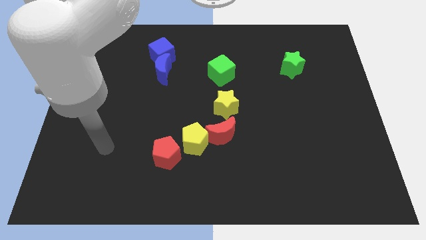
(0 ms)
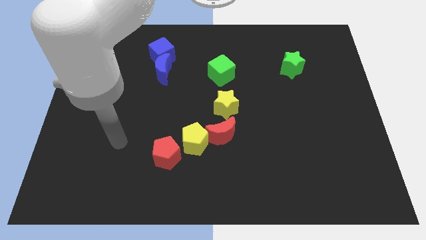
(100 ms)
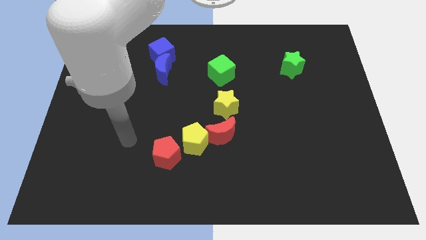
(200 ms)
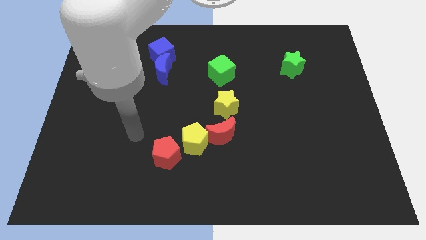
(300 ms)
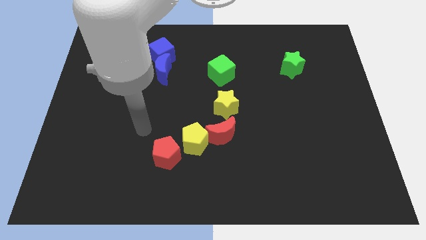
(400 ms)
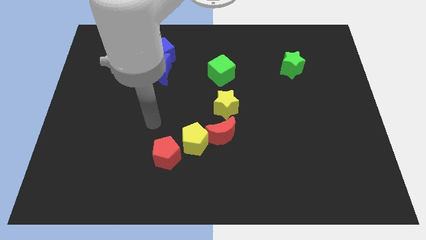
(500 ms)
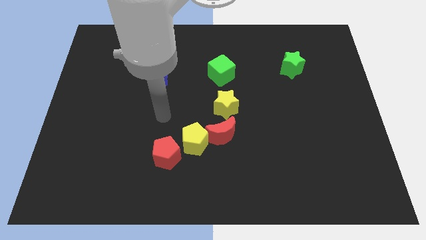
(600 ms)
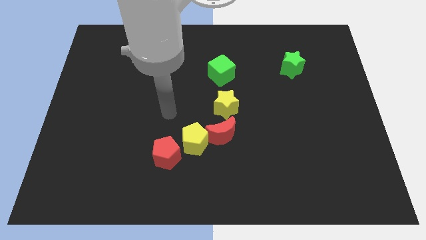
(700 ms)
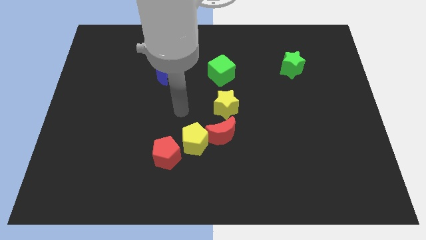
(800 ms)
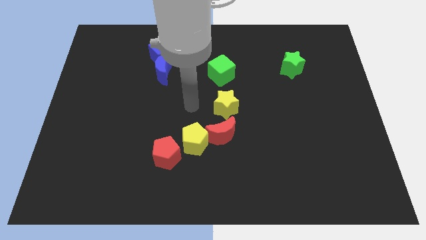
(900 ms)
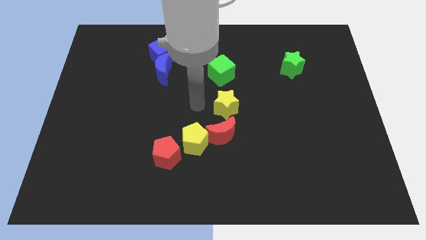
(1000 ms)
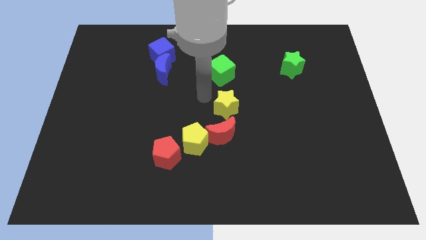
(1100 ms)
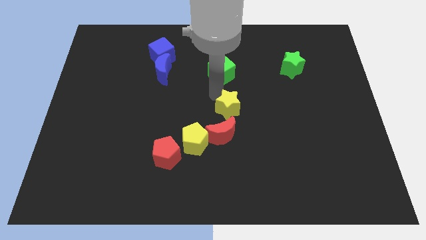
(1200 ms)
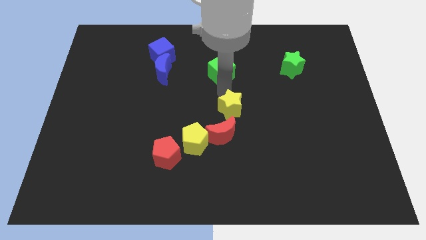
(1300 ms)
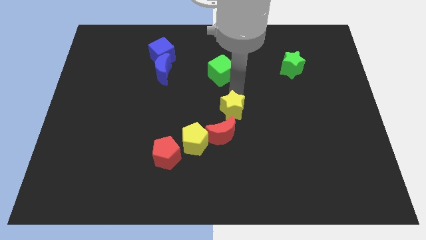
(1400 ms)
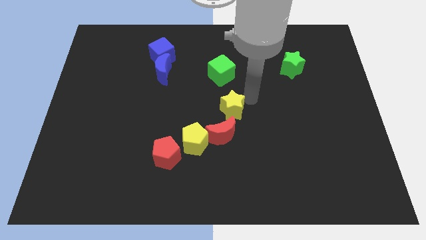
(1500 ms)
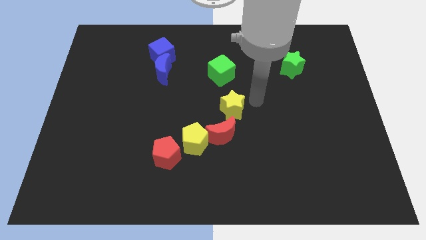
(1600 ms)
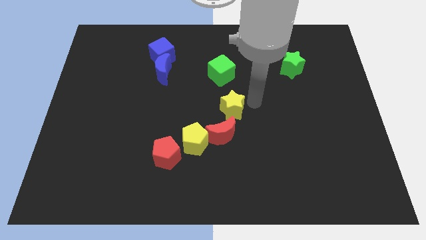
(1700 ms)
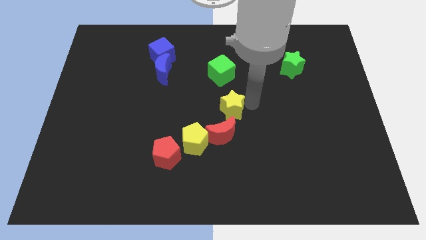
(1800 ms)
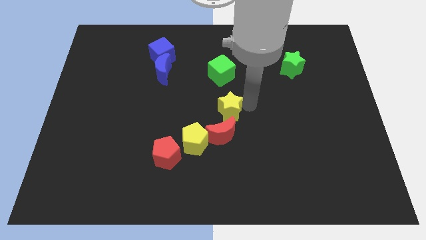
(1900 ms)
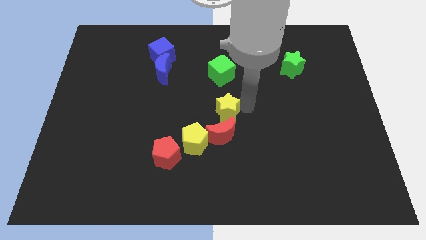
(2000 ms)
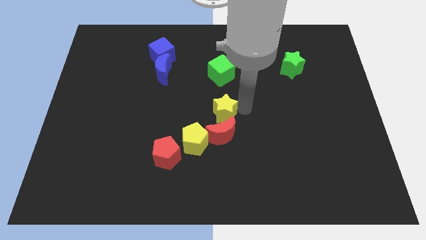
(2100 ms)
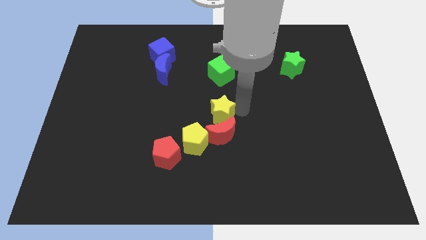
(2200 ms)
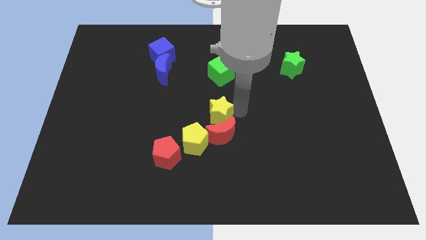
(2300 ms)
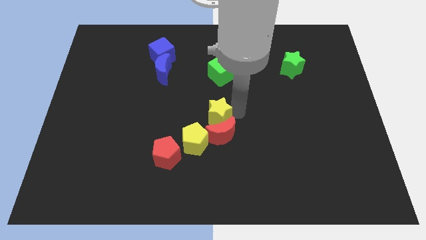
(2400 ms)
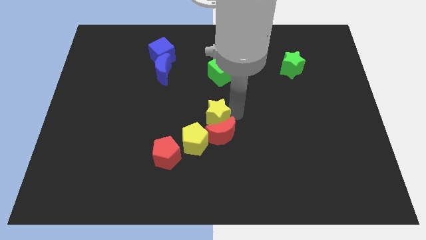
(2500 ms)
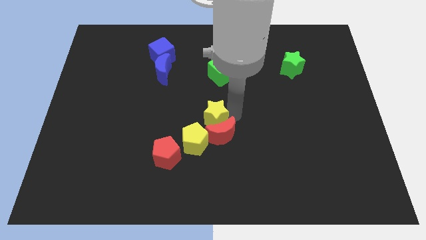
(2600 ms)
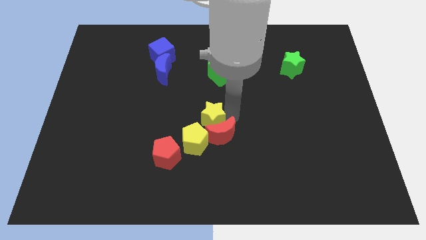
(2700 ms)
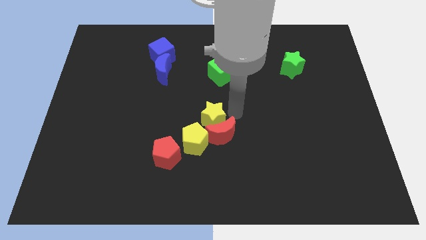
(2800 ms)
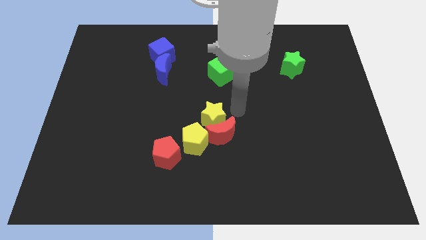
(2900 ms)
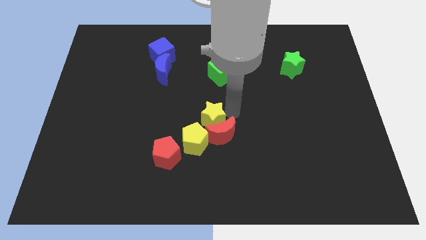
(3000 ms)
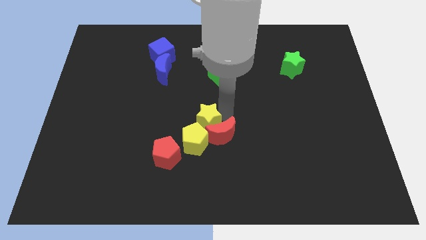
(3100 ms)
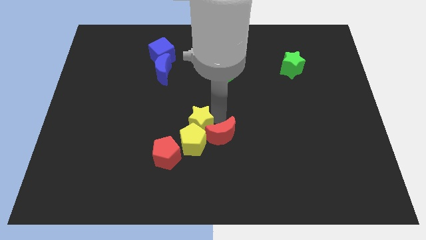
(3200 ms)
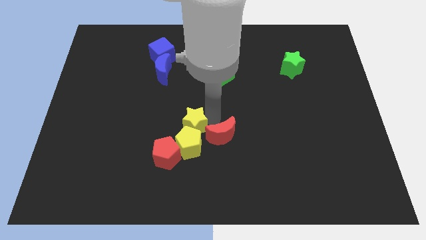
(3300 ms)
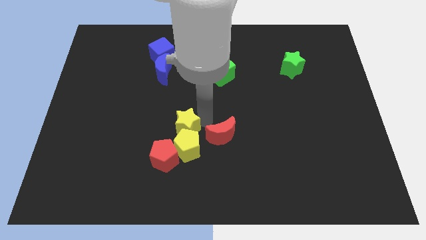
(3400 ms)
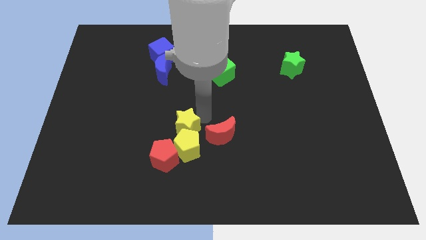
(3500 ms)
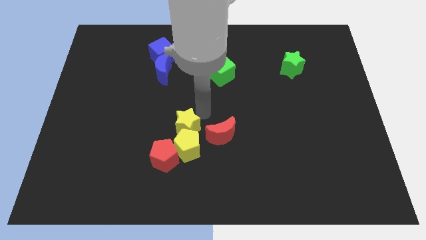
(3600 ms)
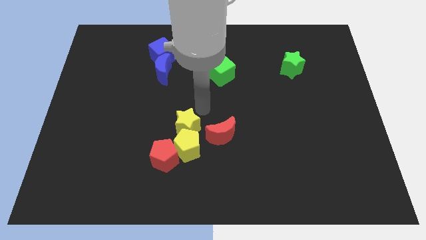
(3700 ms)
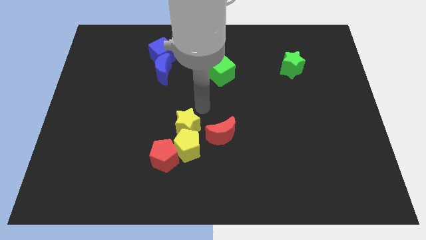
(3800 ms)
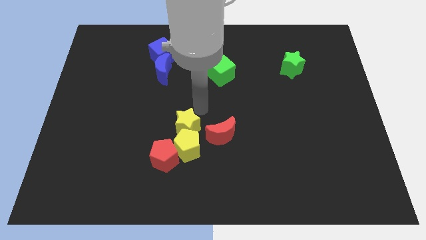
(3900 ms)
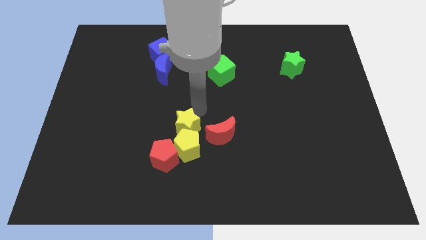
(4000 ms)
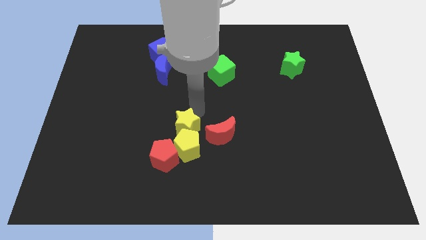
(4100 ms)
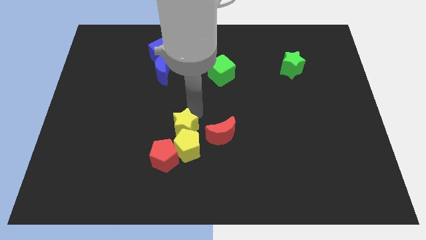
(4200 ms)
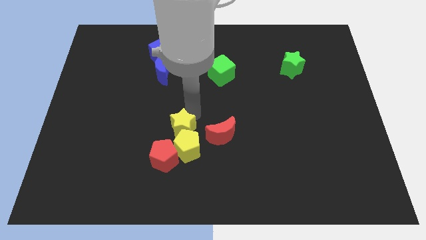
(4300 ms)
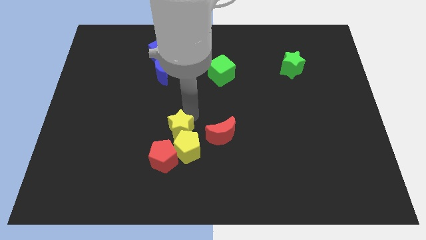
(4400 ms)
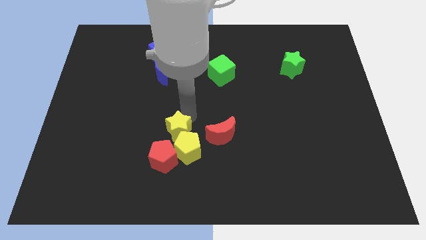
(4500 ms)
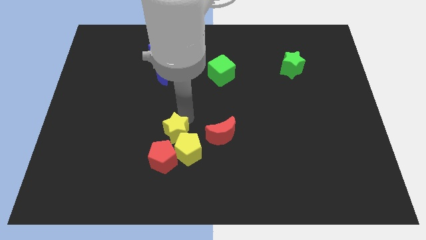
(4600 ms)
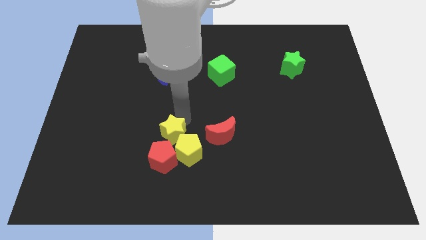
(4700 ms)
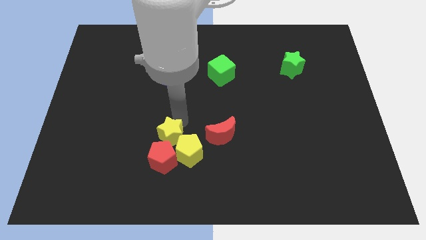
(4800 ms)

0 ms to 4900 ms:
push the yellow star to the red pentagon

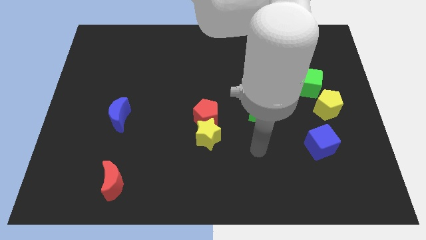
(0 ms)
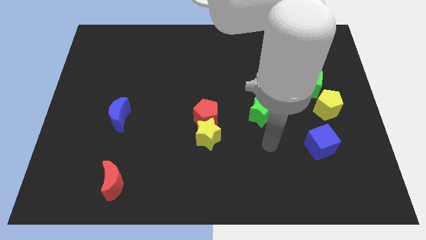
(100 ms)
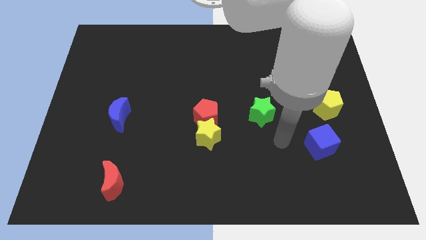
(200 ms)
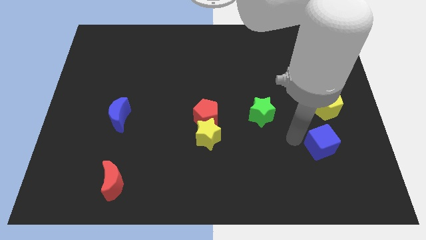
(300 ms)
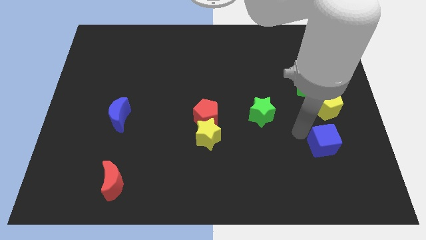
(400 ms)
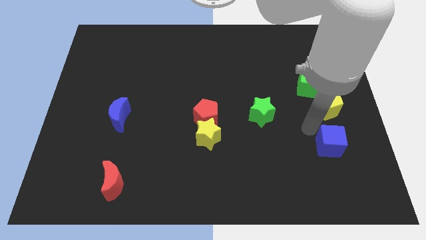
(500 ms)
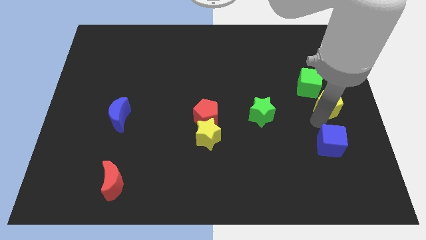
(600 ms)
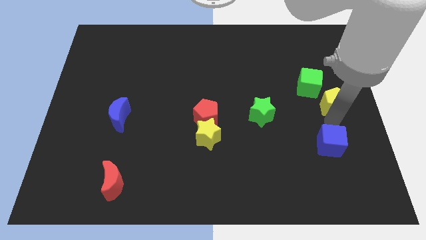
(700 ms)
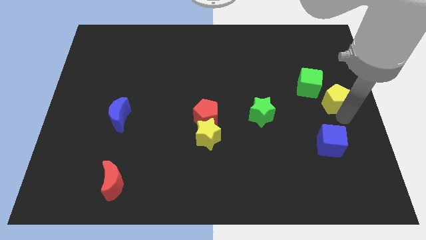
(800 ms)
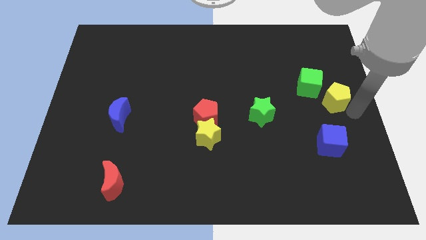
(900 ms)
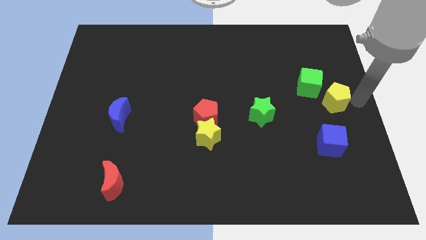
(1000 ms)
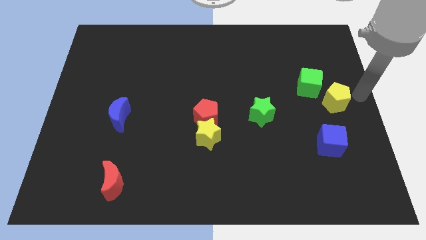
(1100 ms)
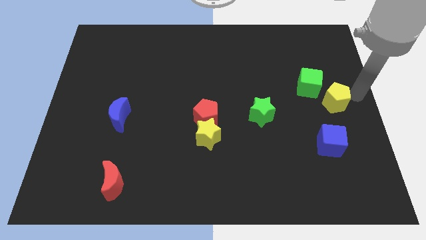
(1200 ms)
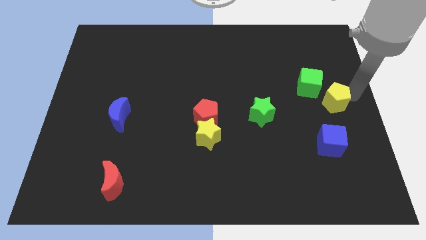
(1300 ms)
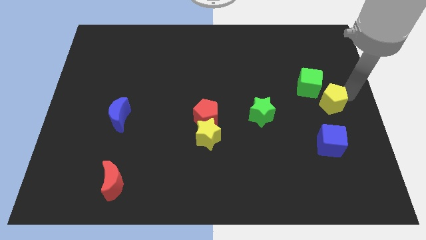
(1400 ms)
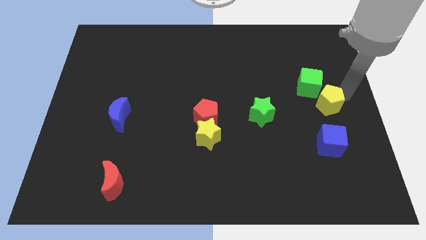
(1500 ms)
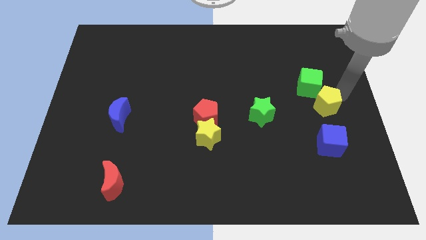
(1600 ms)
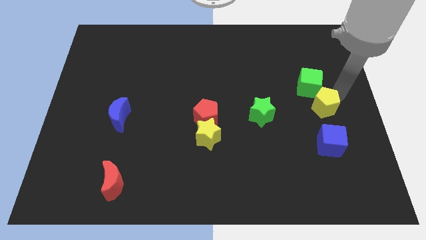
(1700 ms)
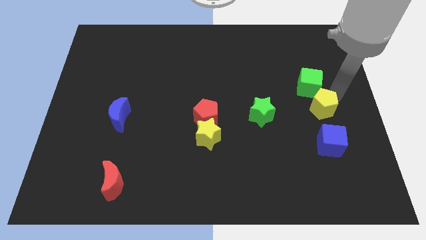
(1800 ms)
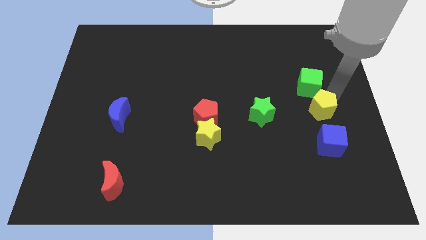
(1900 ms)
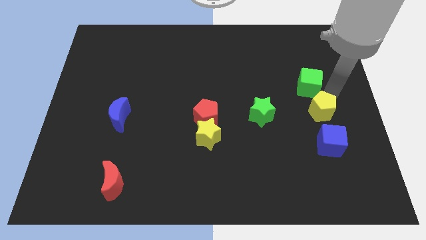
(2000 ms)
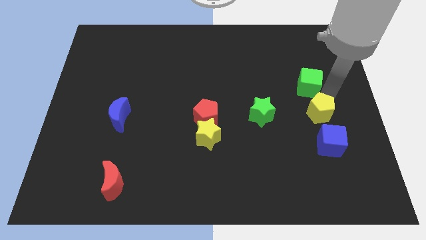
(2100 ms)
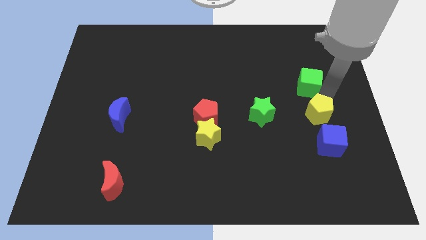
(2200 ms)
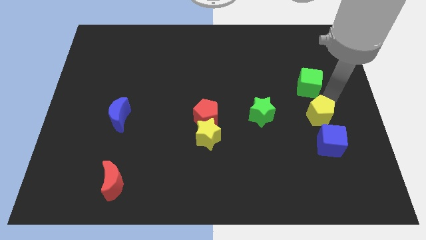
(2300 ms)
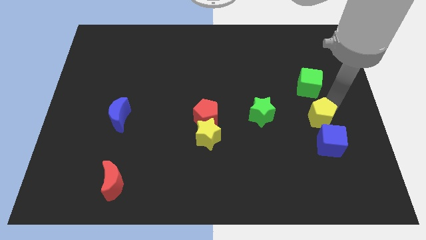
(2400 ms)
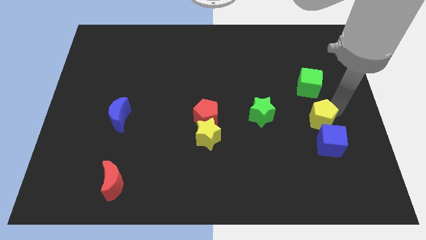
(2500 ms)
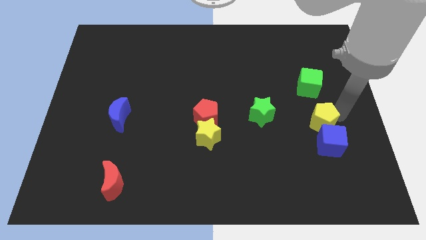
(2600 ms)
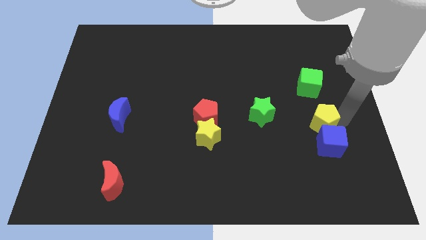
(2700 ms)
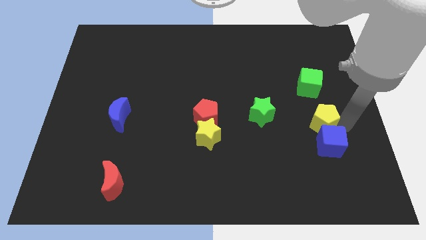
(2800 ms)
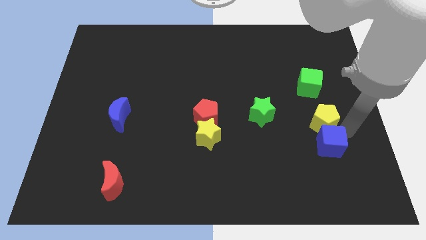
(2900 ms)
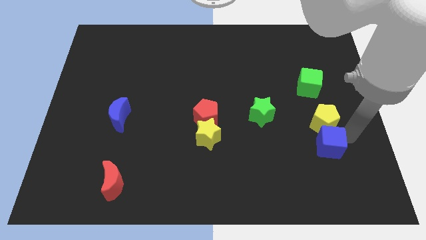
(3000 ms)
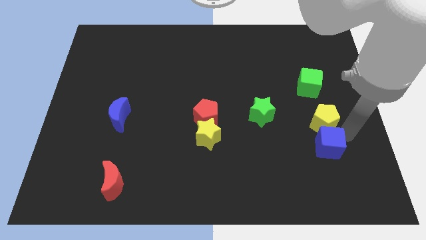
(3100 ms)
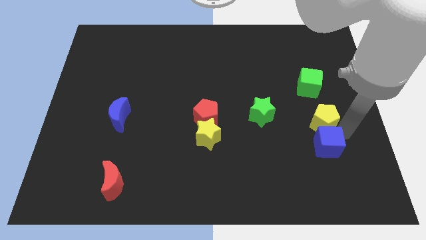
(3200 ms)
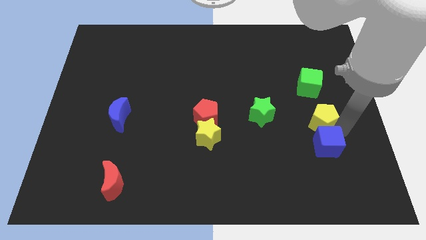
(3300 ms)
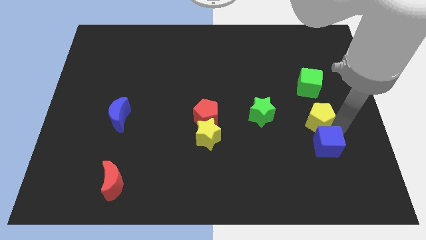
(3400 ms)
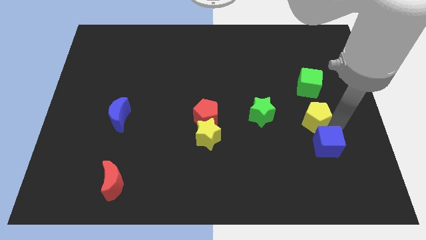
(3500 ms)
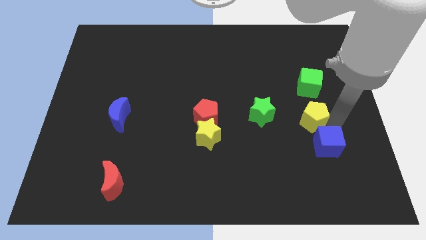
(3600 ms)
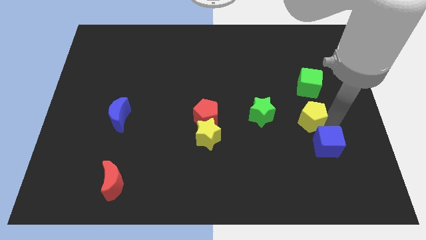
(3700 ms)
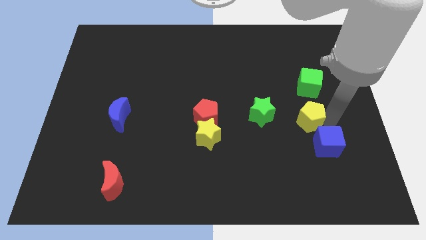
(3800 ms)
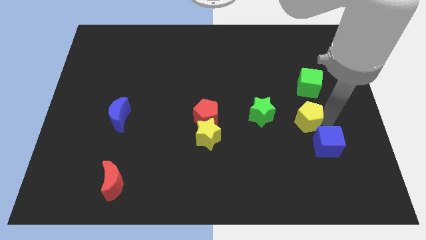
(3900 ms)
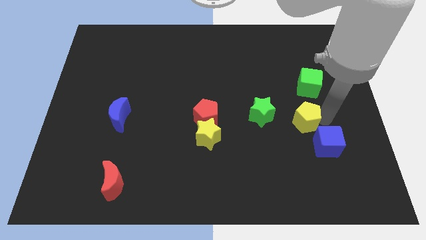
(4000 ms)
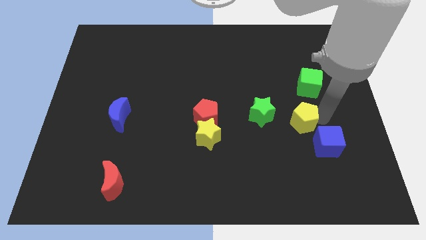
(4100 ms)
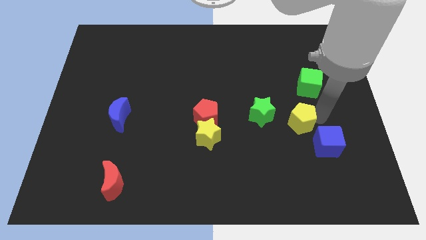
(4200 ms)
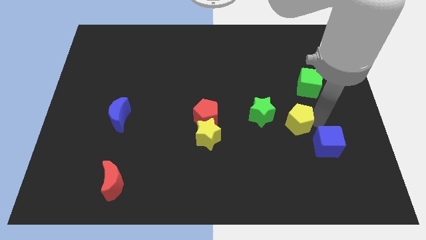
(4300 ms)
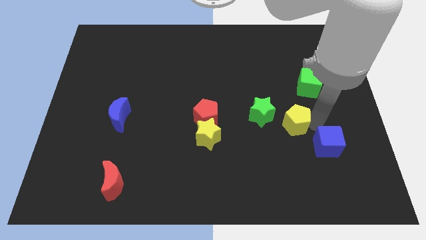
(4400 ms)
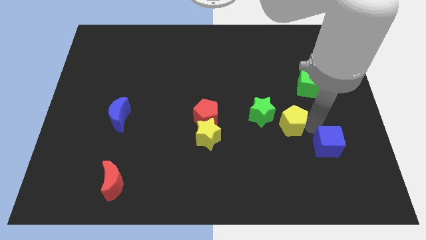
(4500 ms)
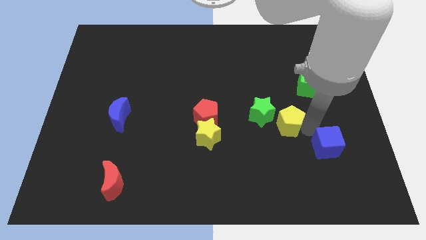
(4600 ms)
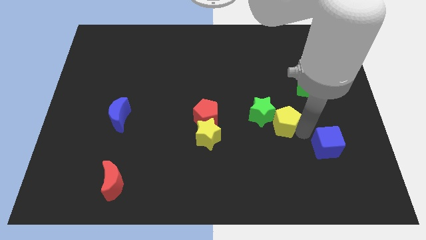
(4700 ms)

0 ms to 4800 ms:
push the yellow pentagon close to the green star
